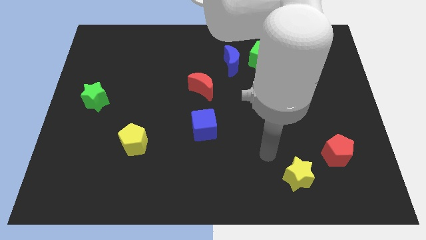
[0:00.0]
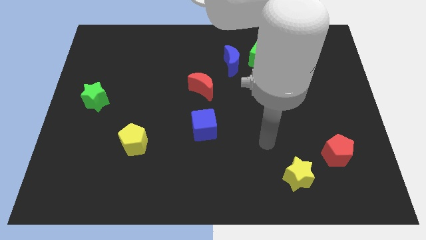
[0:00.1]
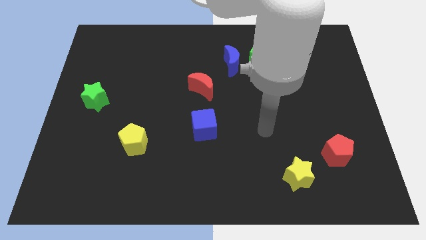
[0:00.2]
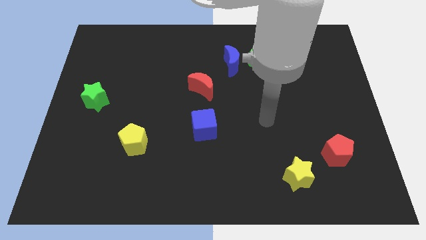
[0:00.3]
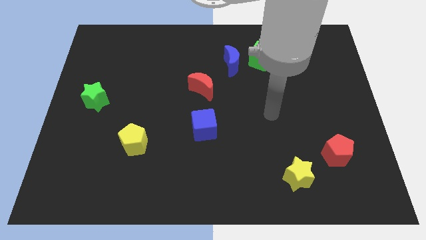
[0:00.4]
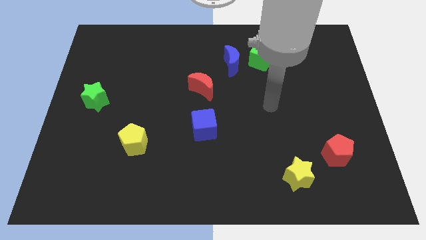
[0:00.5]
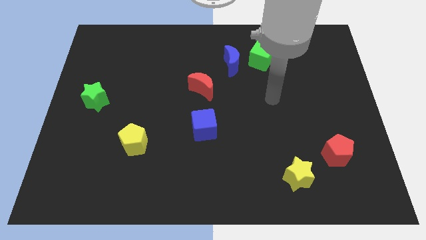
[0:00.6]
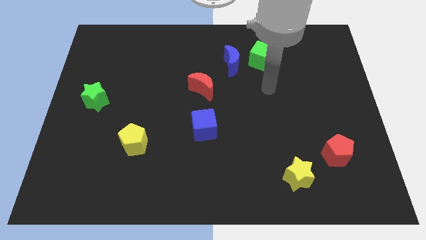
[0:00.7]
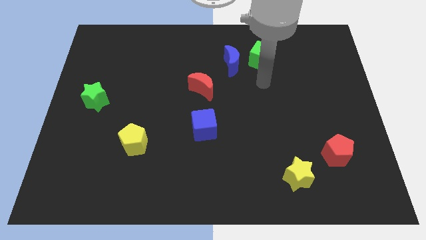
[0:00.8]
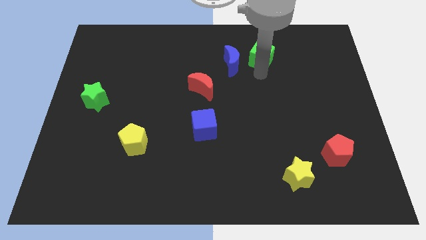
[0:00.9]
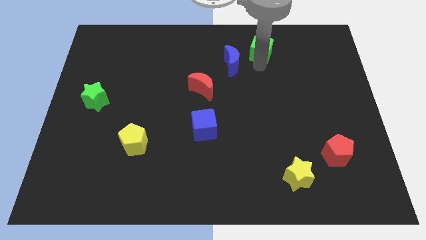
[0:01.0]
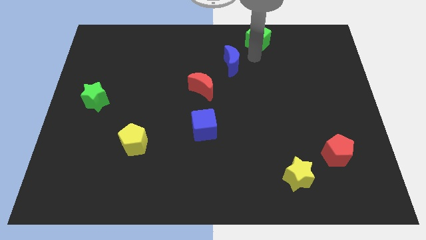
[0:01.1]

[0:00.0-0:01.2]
separate the blue moon from the green cube

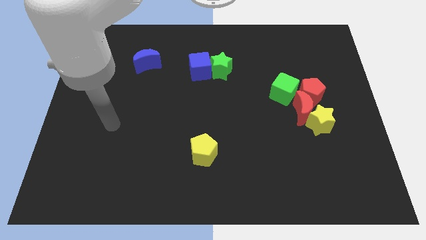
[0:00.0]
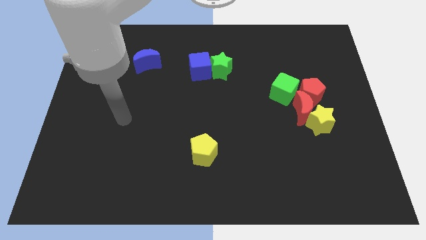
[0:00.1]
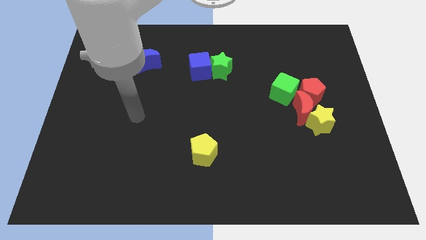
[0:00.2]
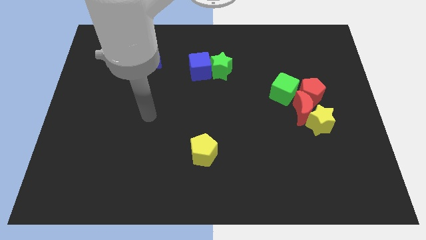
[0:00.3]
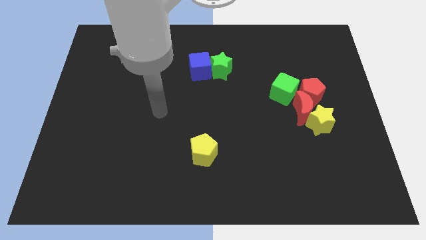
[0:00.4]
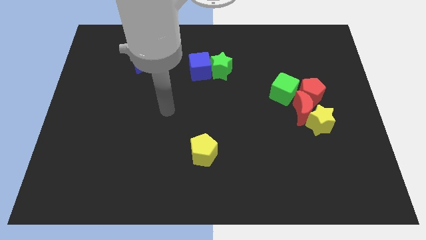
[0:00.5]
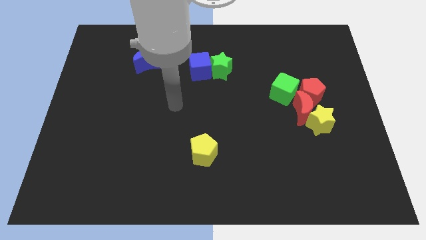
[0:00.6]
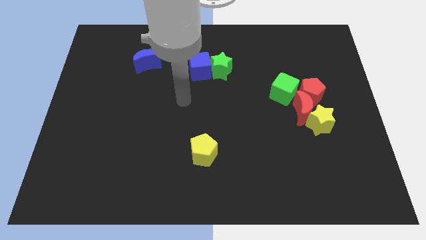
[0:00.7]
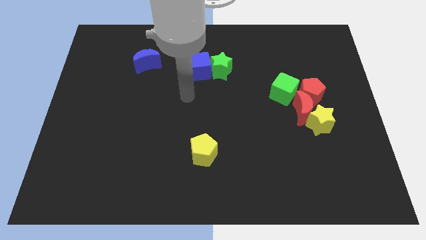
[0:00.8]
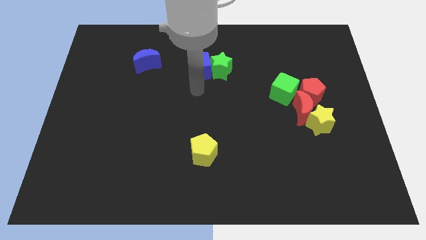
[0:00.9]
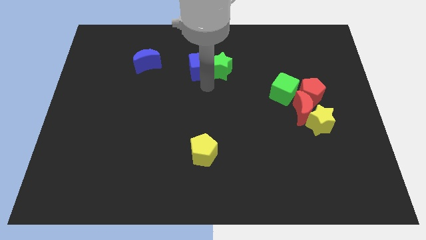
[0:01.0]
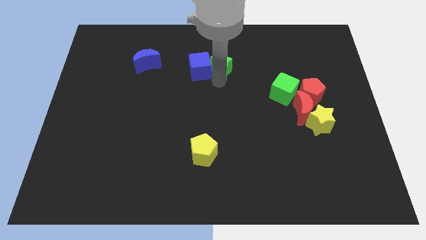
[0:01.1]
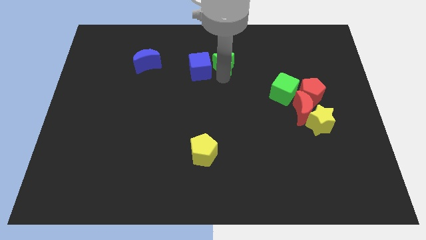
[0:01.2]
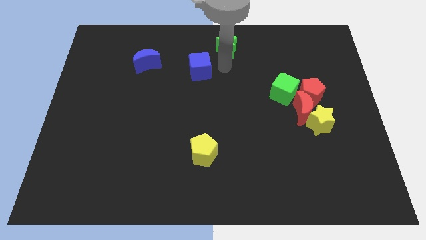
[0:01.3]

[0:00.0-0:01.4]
move the blue cube away from the green star

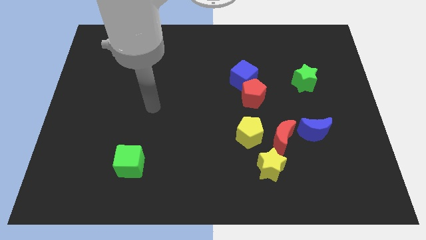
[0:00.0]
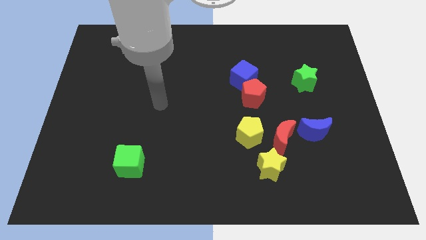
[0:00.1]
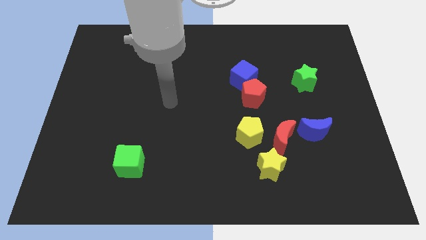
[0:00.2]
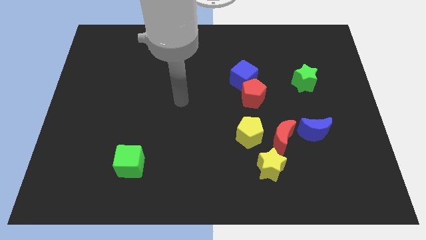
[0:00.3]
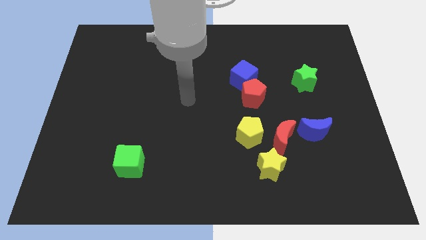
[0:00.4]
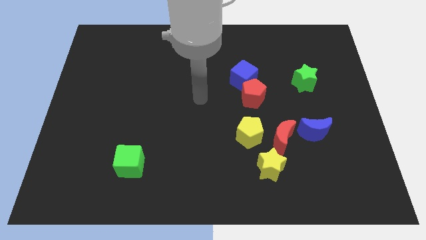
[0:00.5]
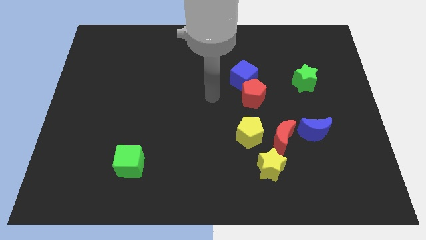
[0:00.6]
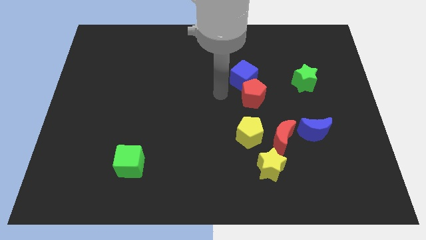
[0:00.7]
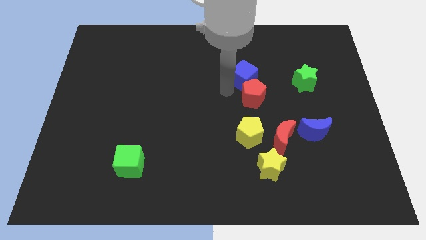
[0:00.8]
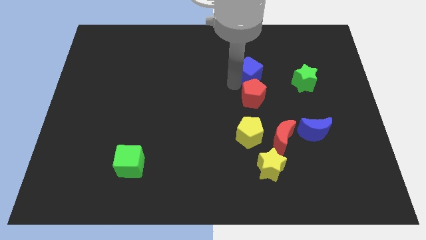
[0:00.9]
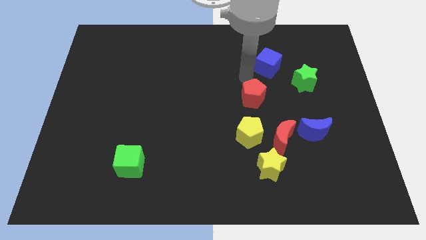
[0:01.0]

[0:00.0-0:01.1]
separate the red pentagon from the blue cube

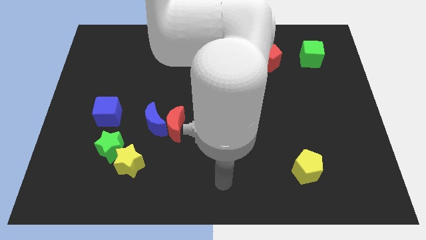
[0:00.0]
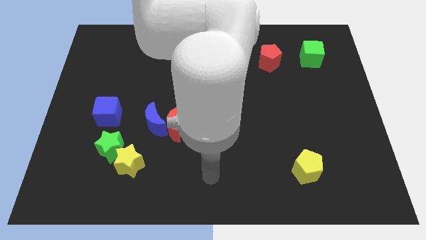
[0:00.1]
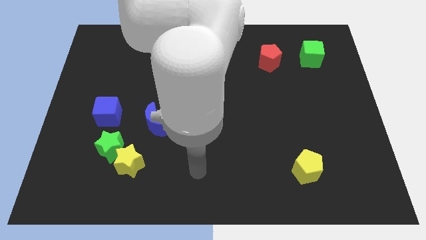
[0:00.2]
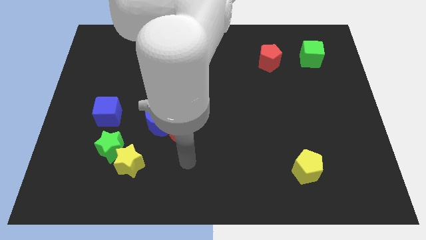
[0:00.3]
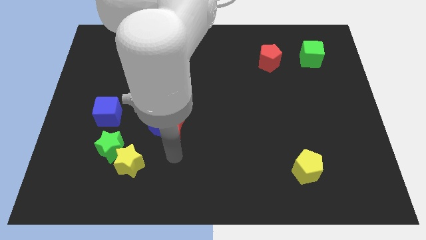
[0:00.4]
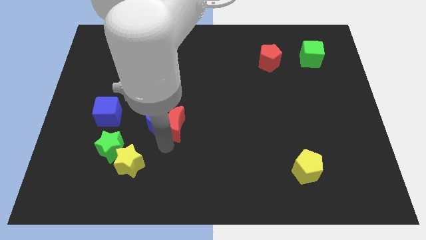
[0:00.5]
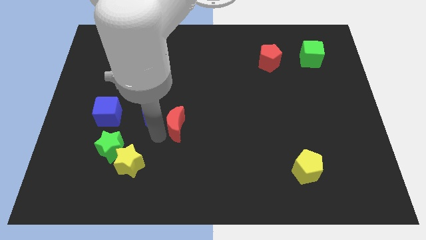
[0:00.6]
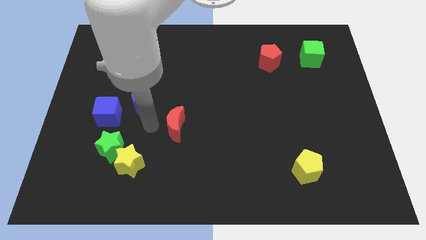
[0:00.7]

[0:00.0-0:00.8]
move the red moon away from the blue moon

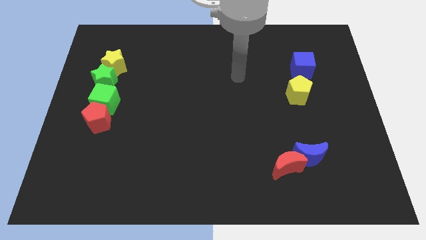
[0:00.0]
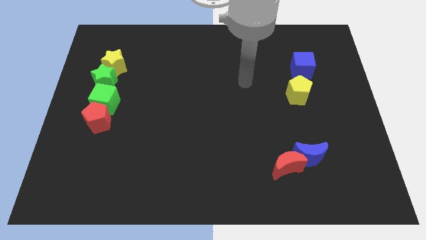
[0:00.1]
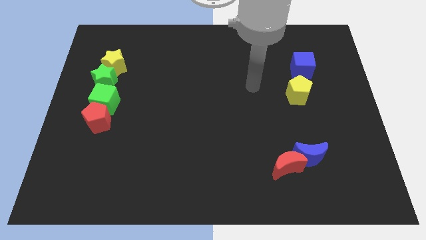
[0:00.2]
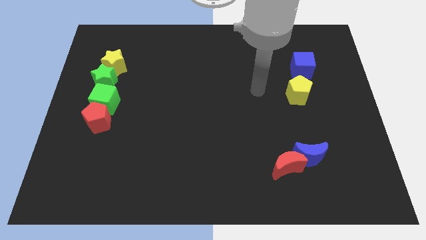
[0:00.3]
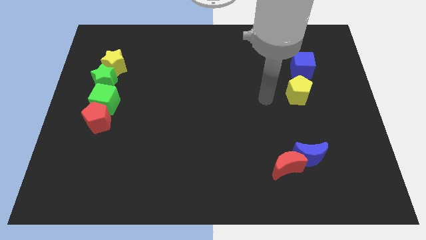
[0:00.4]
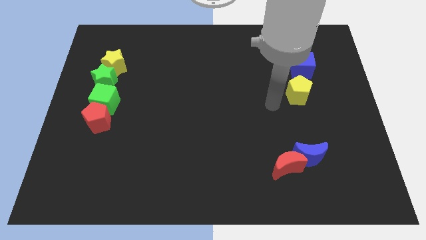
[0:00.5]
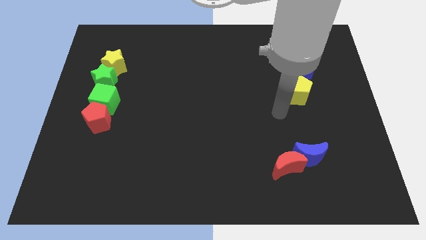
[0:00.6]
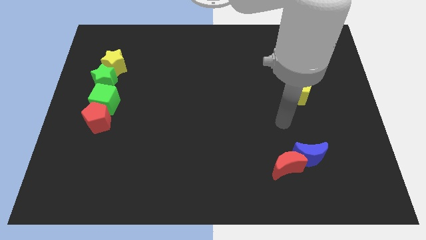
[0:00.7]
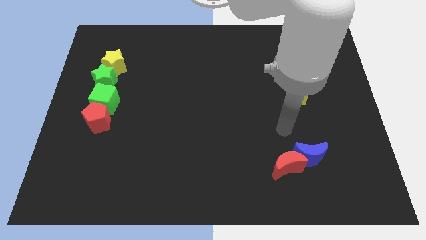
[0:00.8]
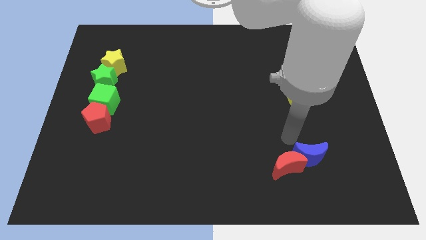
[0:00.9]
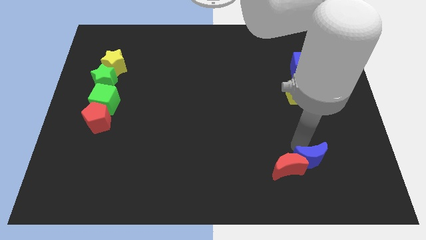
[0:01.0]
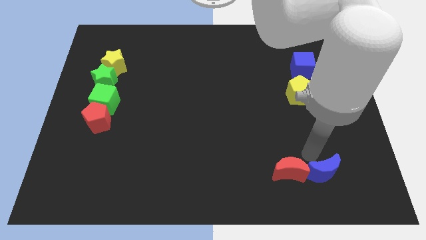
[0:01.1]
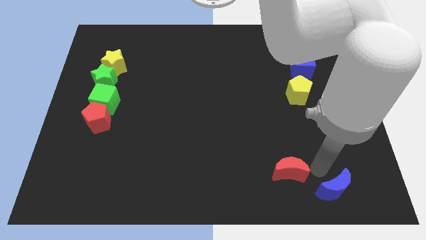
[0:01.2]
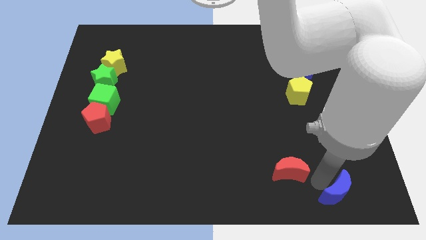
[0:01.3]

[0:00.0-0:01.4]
separate the red moon from the blue moon

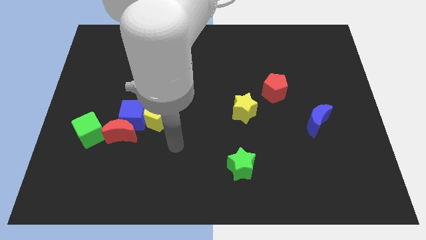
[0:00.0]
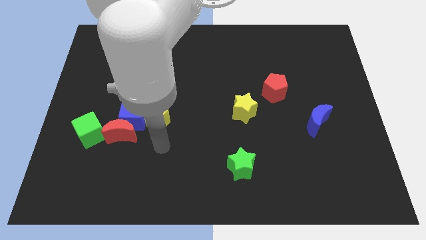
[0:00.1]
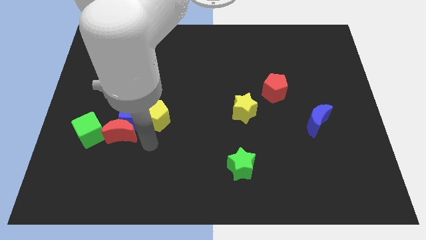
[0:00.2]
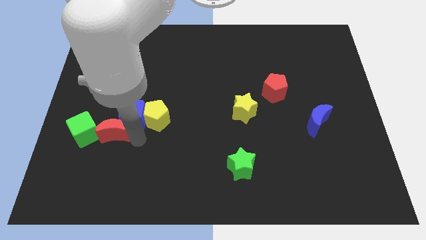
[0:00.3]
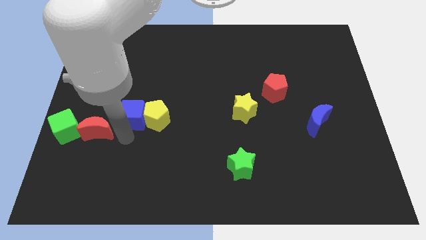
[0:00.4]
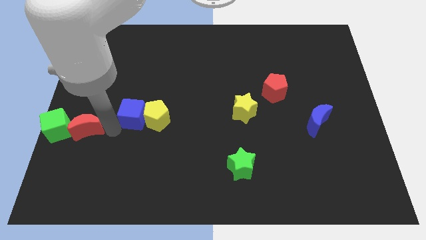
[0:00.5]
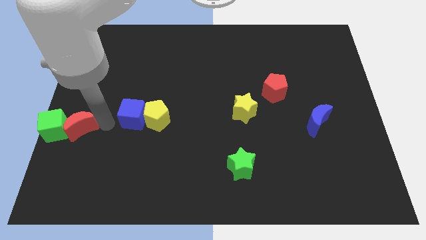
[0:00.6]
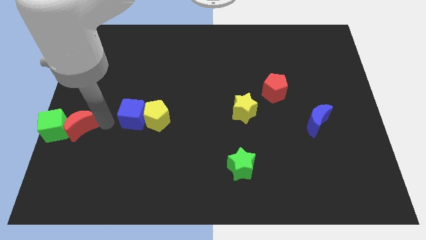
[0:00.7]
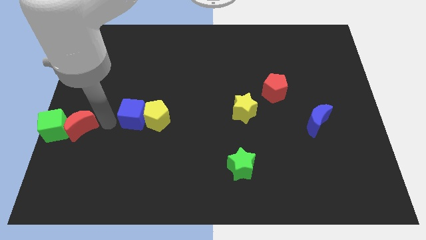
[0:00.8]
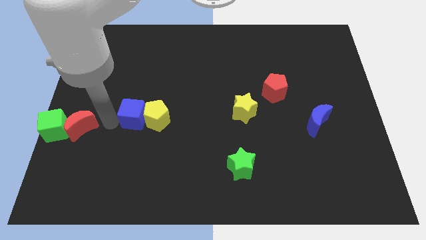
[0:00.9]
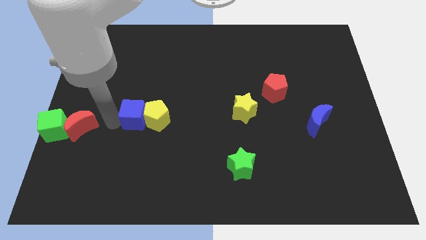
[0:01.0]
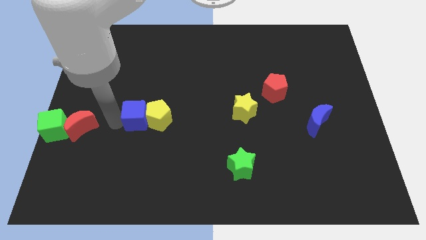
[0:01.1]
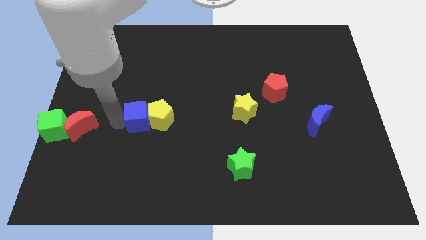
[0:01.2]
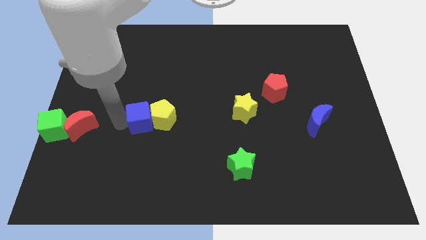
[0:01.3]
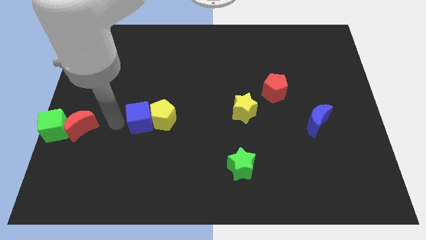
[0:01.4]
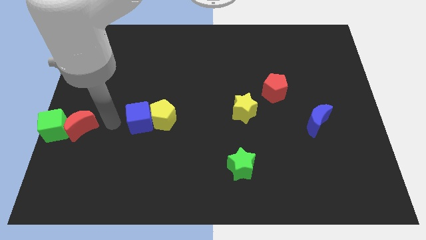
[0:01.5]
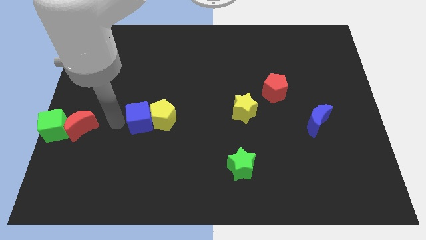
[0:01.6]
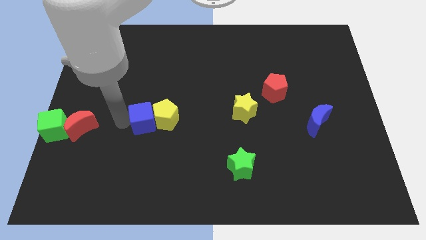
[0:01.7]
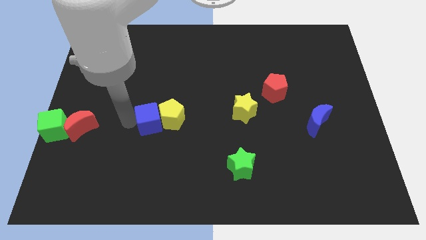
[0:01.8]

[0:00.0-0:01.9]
pull the blue cube apart from the red moon, yellow pentagon, and green cube

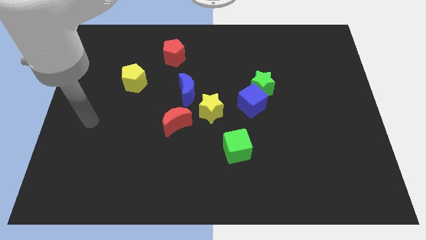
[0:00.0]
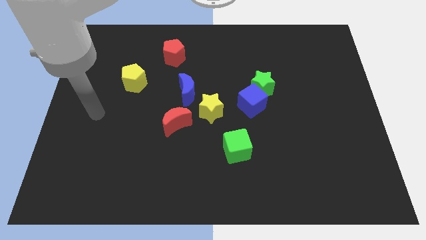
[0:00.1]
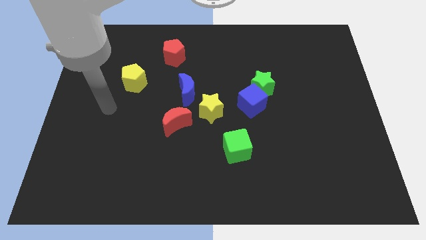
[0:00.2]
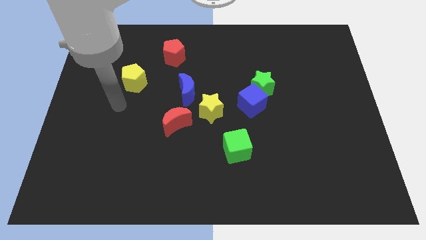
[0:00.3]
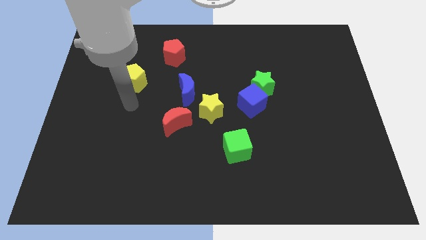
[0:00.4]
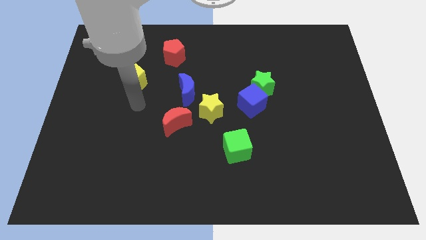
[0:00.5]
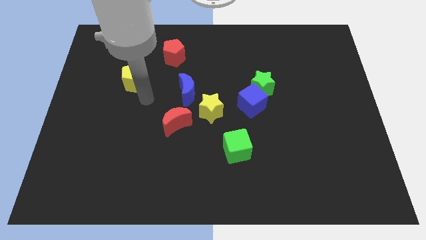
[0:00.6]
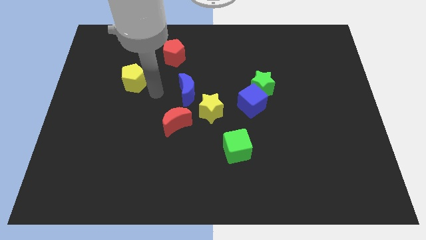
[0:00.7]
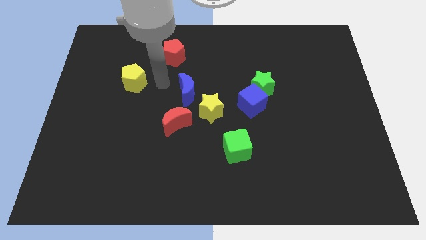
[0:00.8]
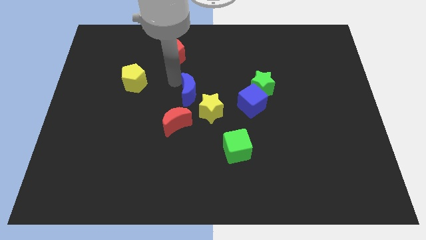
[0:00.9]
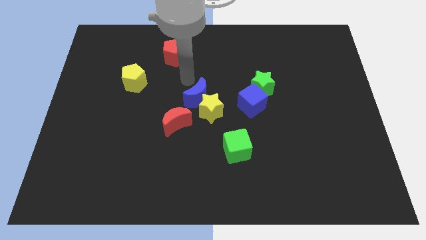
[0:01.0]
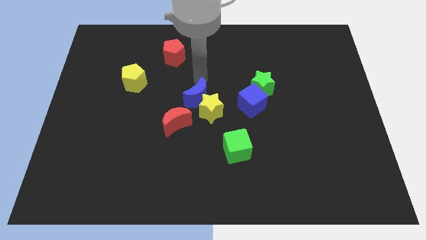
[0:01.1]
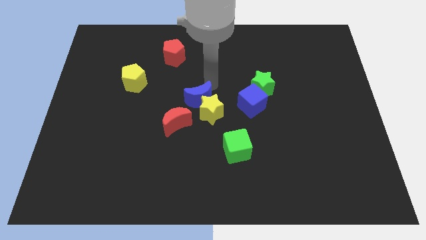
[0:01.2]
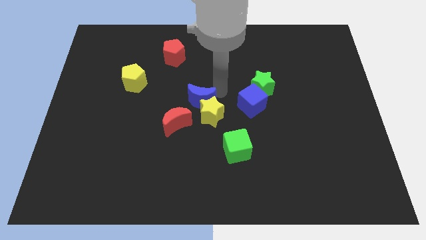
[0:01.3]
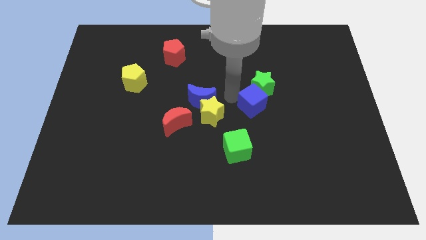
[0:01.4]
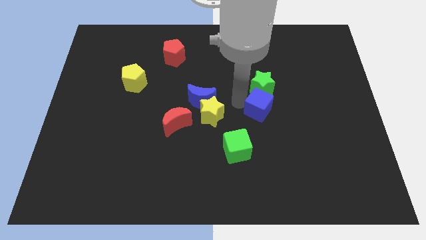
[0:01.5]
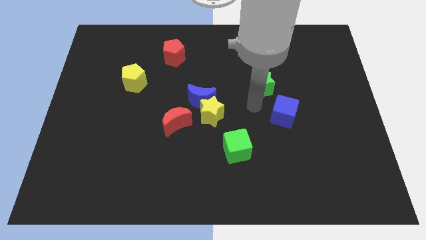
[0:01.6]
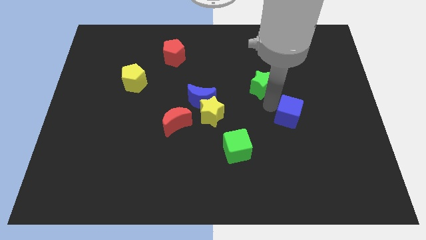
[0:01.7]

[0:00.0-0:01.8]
pull the green star apart from the blue cube
